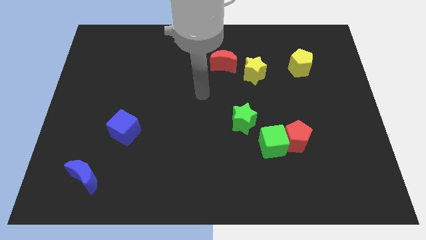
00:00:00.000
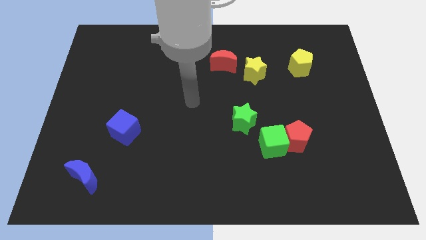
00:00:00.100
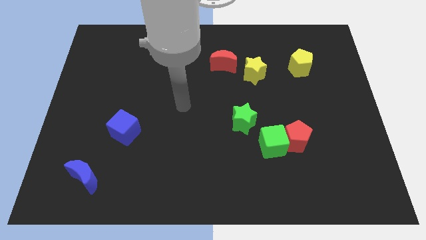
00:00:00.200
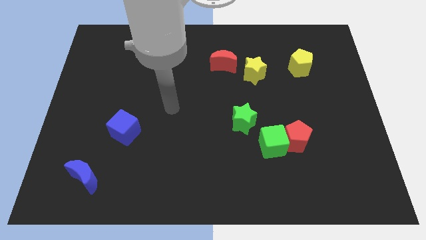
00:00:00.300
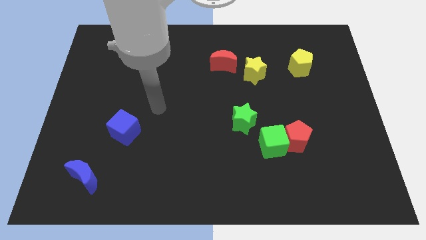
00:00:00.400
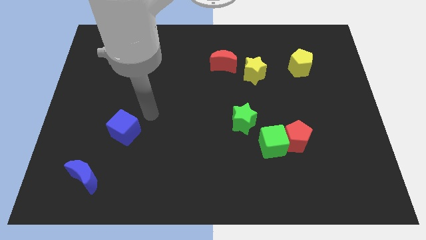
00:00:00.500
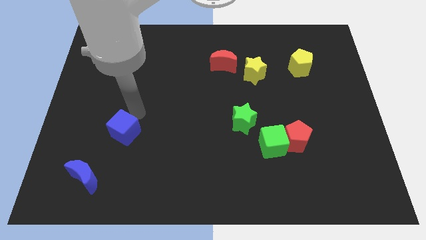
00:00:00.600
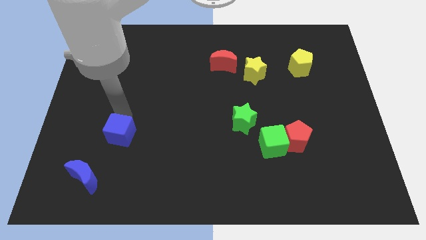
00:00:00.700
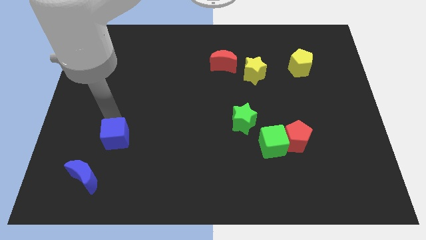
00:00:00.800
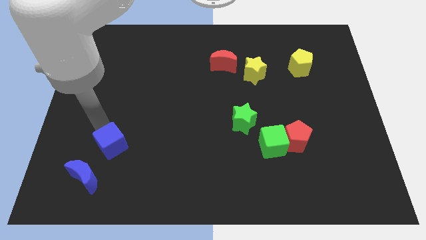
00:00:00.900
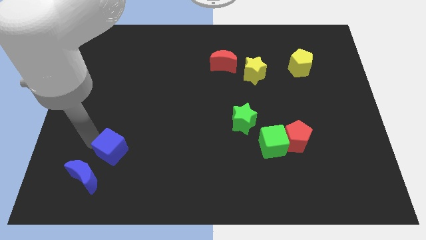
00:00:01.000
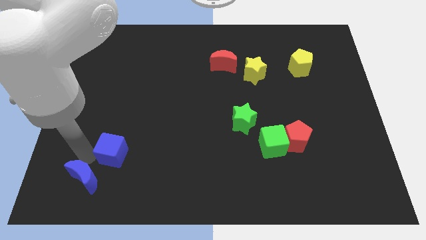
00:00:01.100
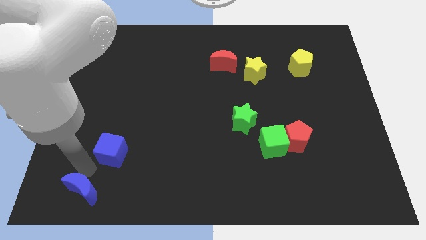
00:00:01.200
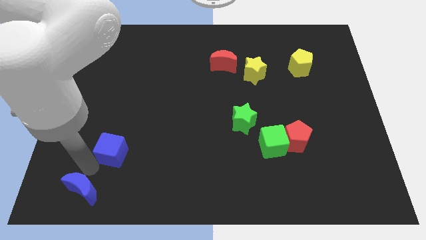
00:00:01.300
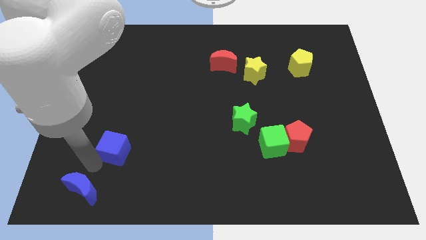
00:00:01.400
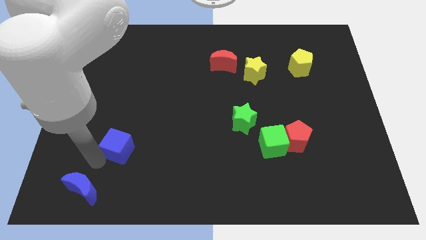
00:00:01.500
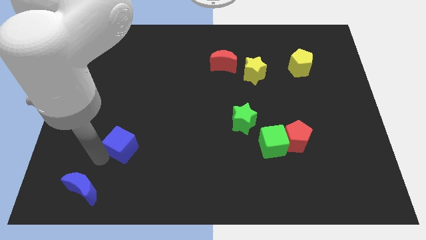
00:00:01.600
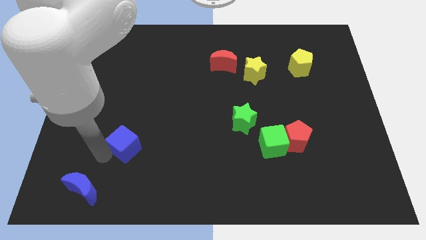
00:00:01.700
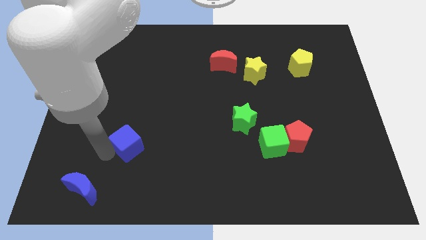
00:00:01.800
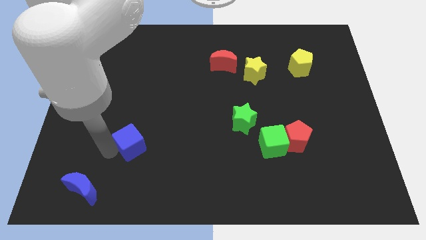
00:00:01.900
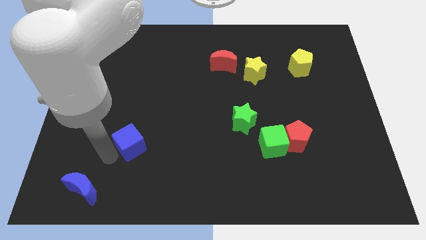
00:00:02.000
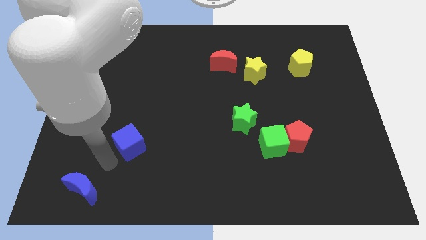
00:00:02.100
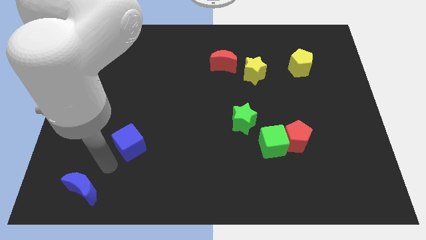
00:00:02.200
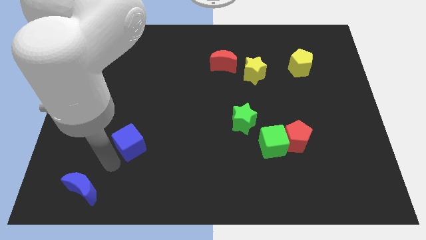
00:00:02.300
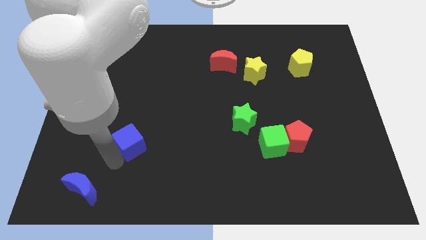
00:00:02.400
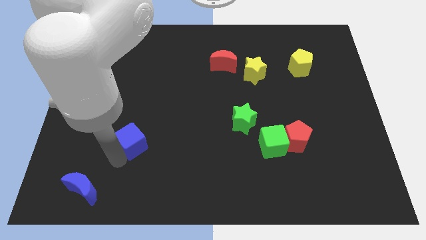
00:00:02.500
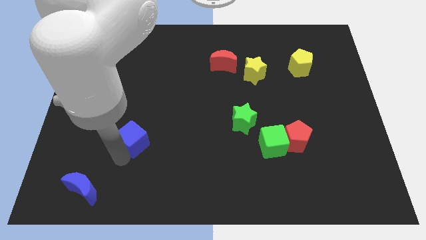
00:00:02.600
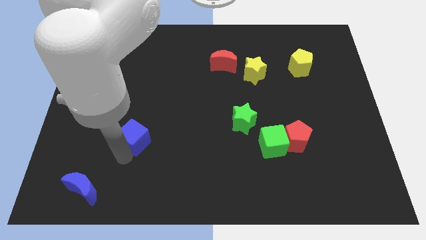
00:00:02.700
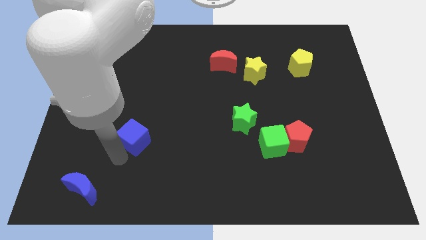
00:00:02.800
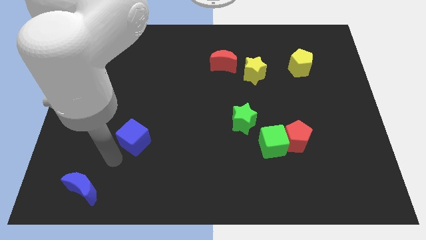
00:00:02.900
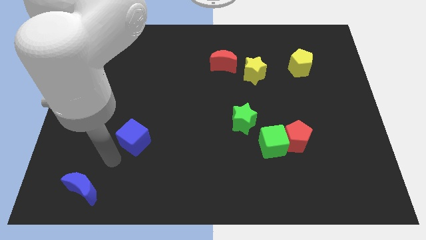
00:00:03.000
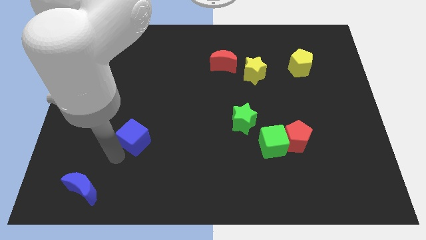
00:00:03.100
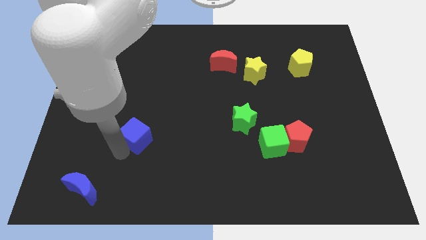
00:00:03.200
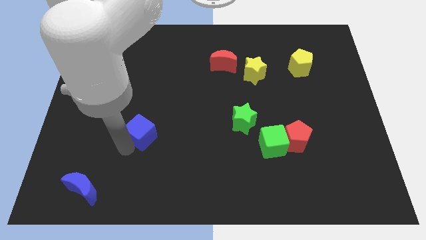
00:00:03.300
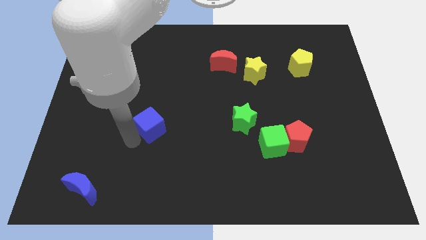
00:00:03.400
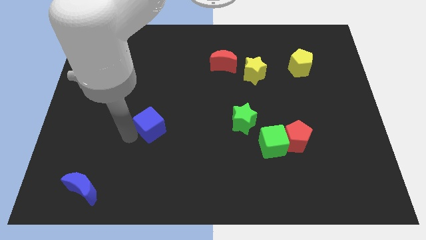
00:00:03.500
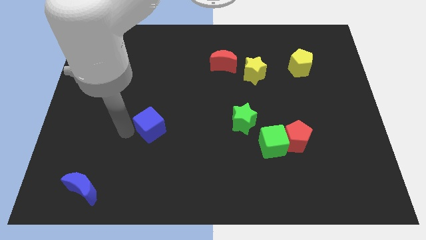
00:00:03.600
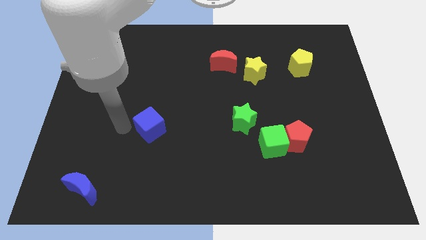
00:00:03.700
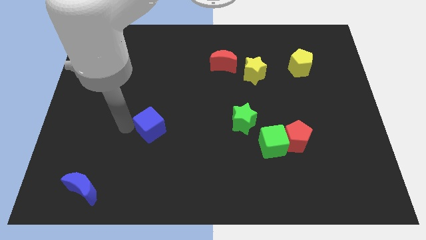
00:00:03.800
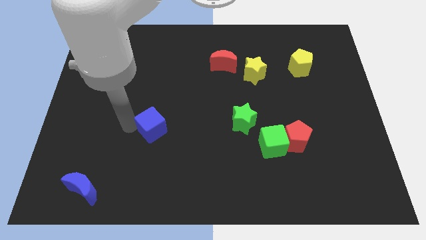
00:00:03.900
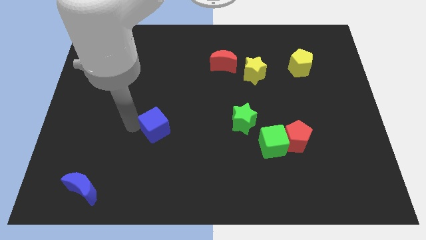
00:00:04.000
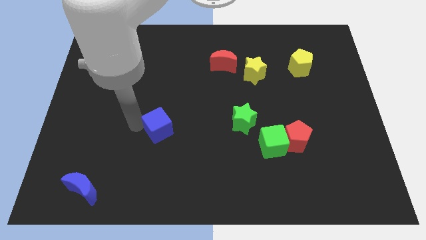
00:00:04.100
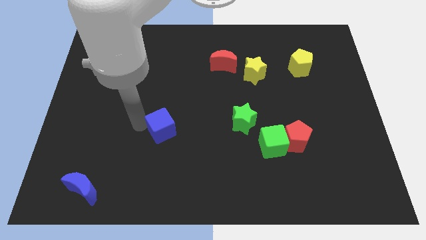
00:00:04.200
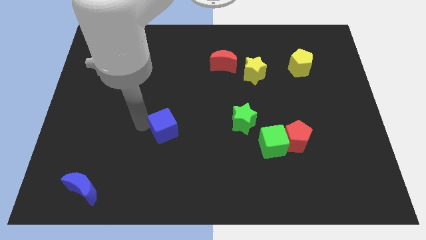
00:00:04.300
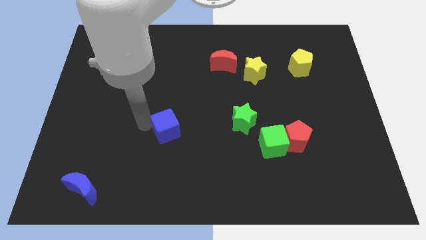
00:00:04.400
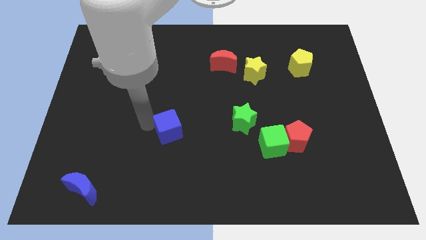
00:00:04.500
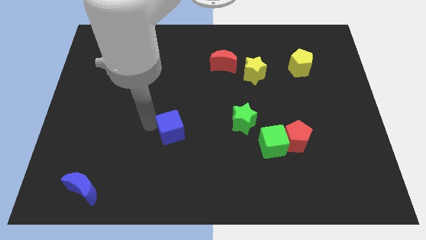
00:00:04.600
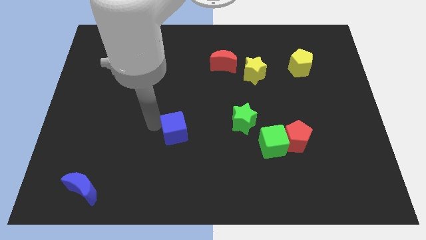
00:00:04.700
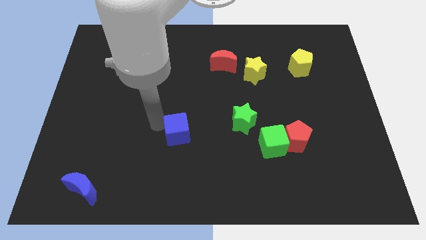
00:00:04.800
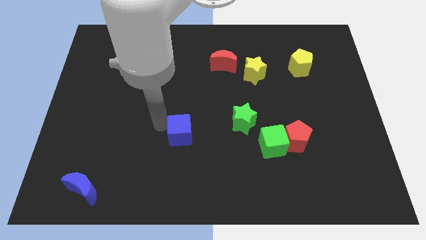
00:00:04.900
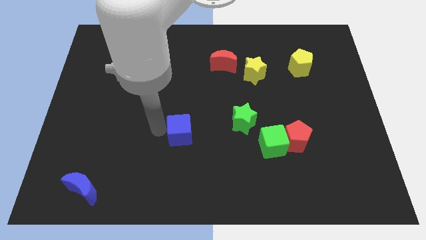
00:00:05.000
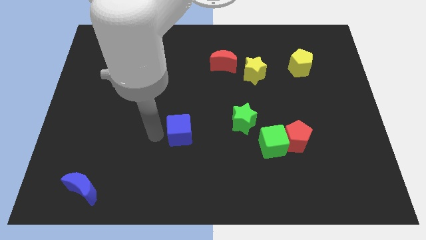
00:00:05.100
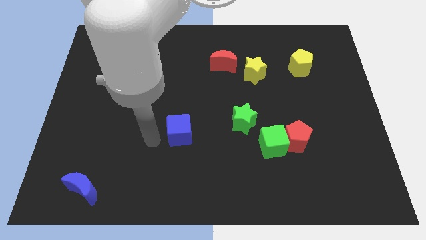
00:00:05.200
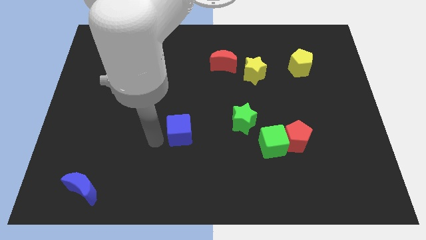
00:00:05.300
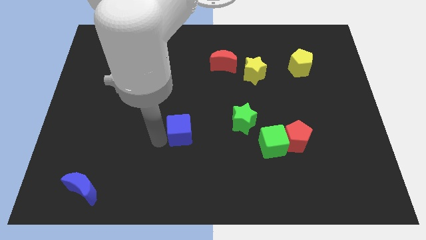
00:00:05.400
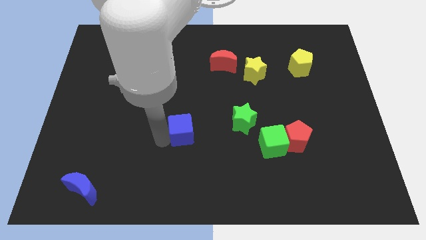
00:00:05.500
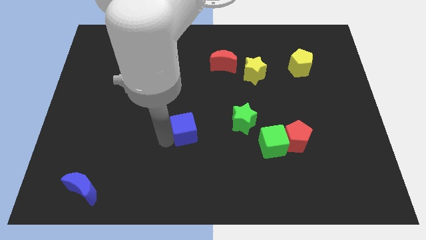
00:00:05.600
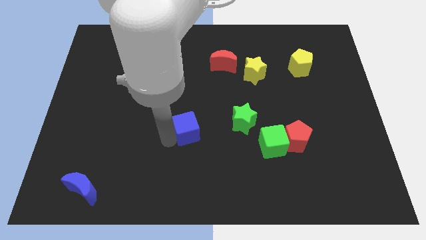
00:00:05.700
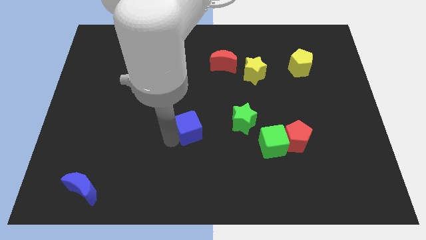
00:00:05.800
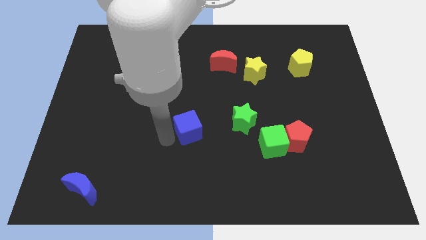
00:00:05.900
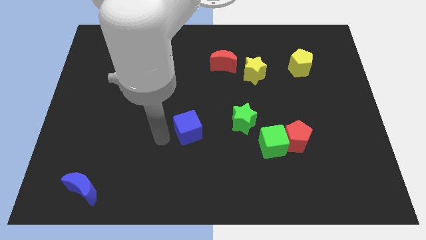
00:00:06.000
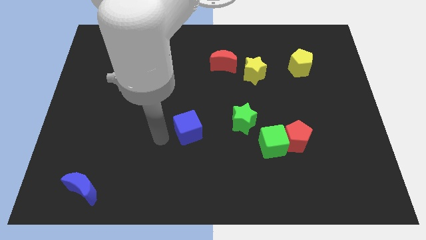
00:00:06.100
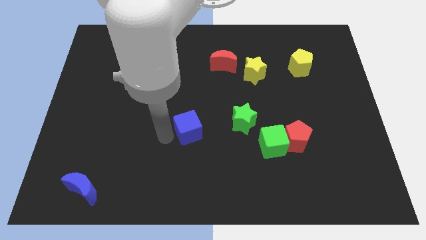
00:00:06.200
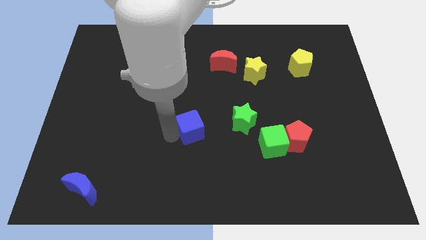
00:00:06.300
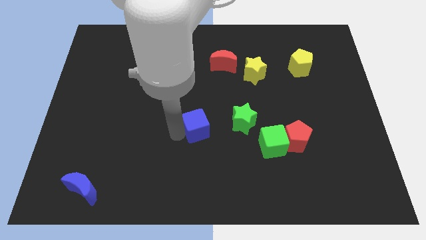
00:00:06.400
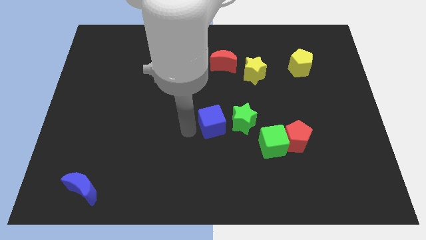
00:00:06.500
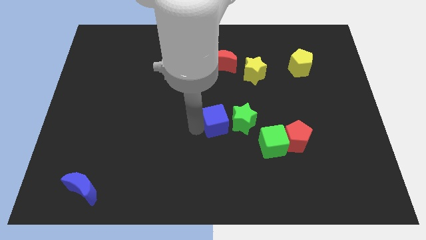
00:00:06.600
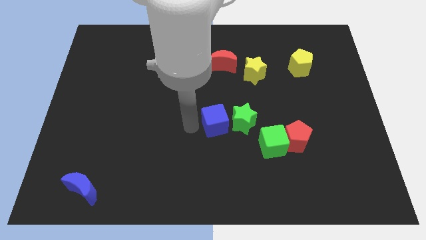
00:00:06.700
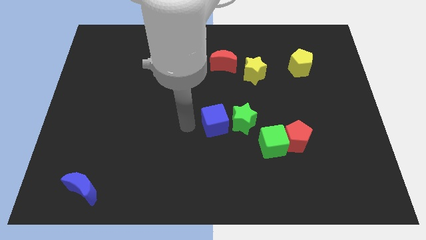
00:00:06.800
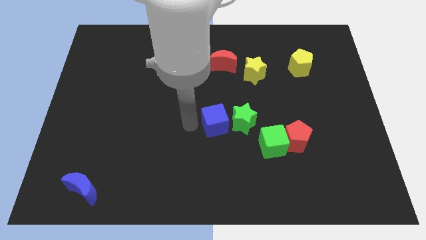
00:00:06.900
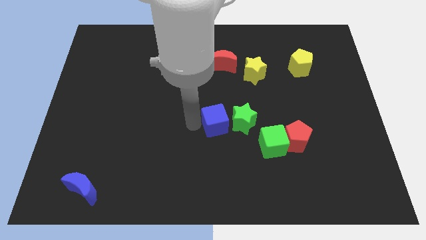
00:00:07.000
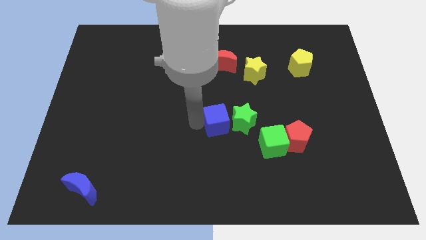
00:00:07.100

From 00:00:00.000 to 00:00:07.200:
move the blue cube next to the green star

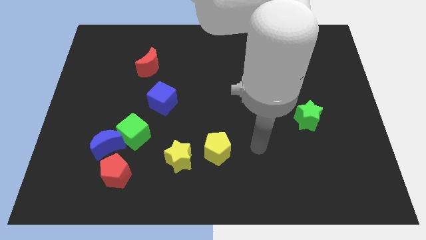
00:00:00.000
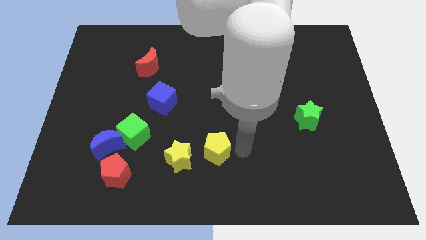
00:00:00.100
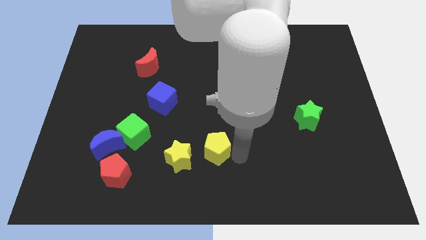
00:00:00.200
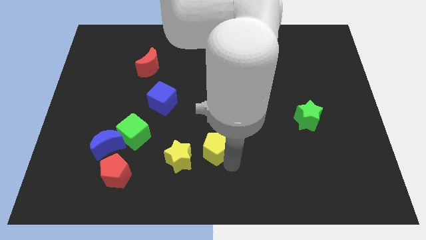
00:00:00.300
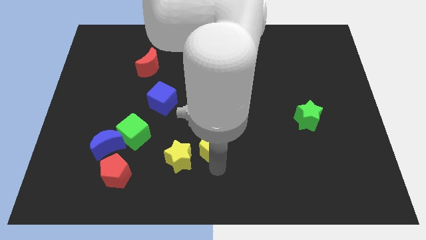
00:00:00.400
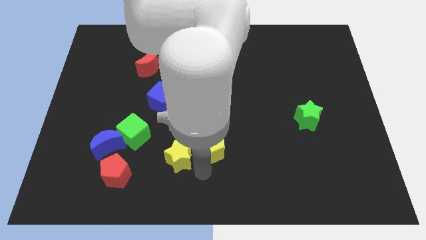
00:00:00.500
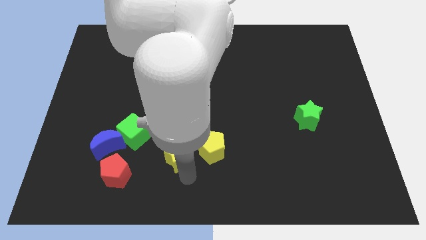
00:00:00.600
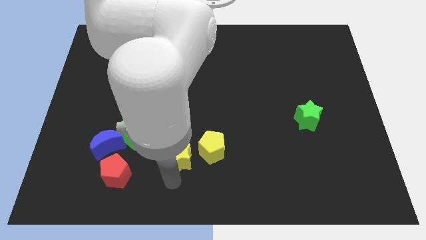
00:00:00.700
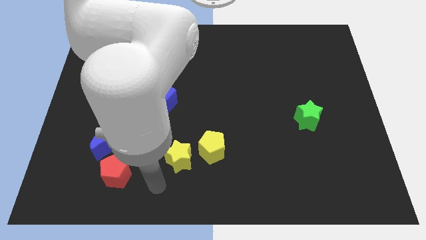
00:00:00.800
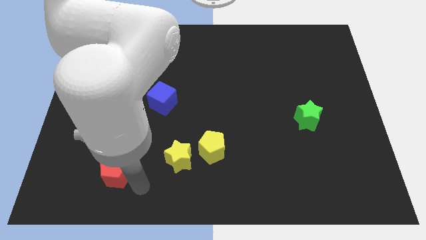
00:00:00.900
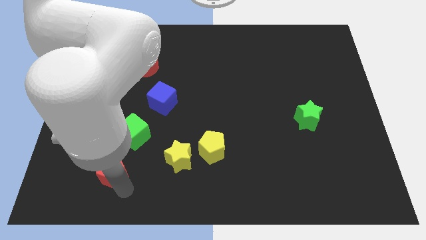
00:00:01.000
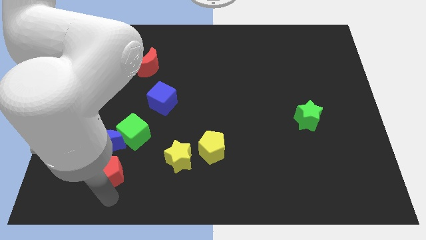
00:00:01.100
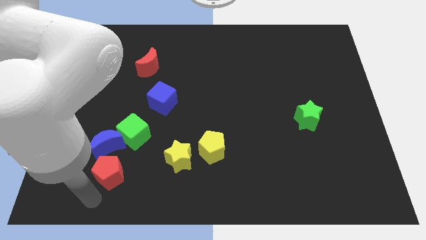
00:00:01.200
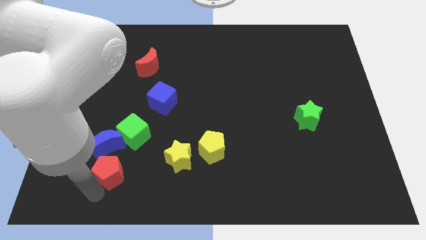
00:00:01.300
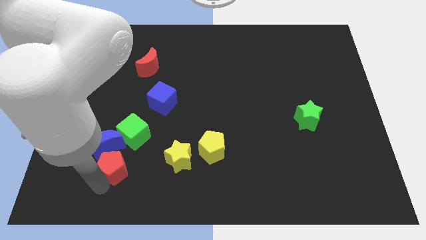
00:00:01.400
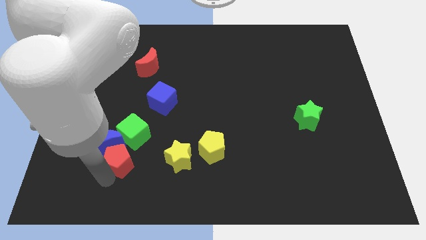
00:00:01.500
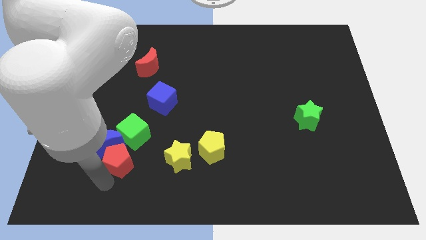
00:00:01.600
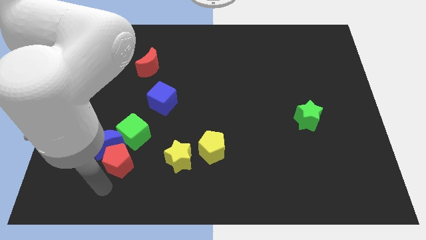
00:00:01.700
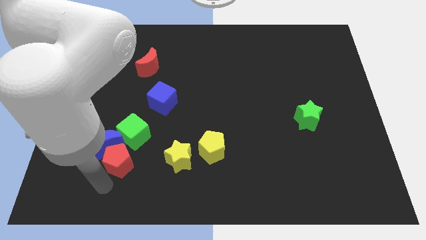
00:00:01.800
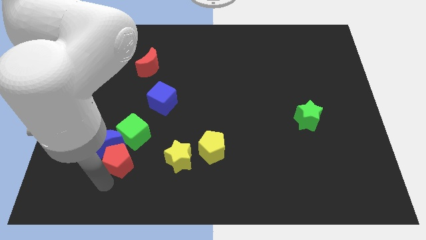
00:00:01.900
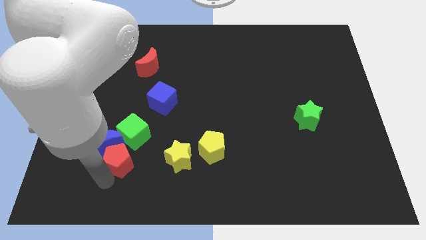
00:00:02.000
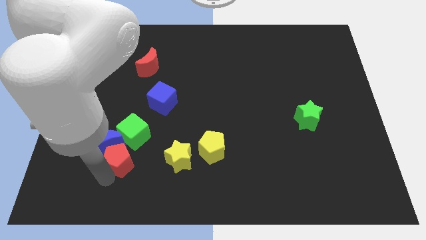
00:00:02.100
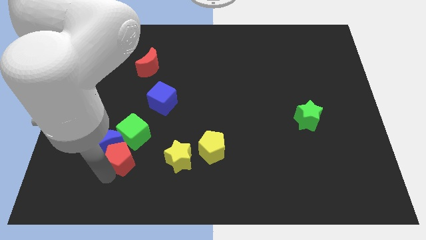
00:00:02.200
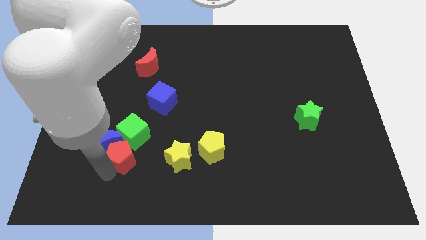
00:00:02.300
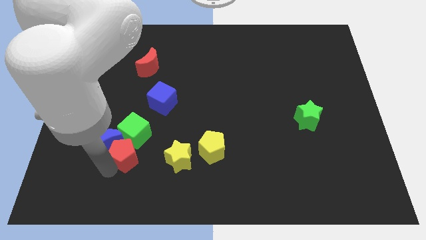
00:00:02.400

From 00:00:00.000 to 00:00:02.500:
move the red pentagon next to the green cube
